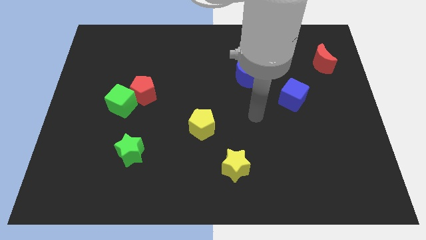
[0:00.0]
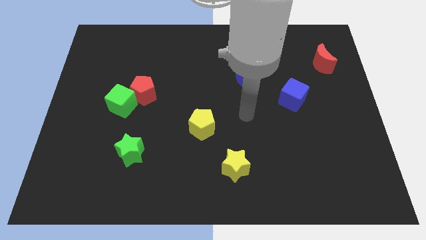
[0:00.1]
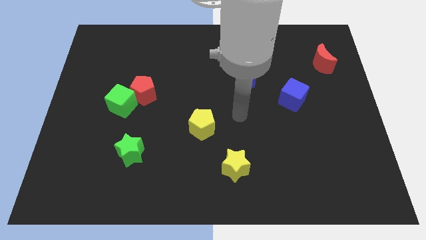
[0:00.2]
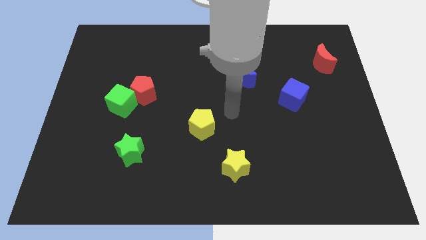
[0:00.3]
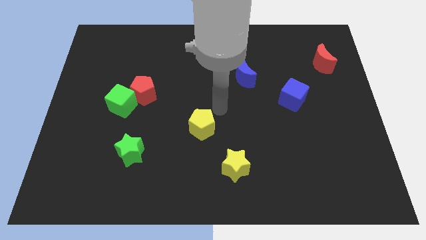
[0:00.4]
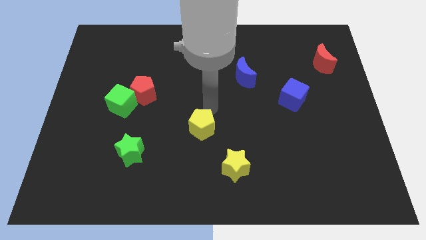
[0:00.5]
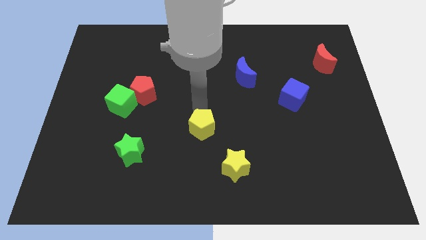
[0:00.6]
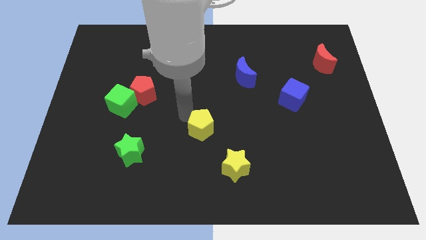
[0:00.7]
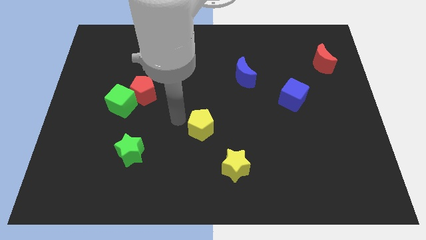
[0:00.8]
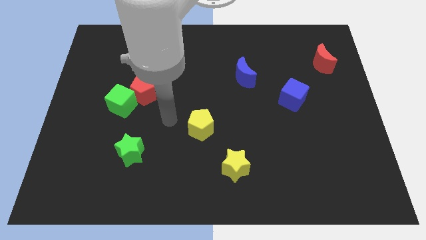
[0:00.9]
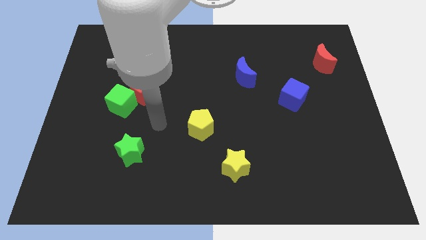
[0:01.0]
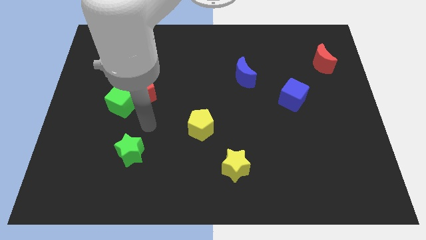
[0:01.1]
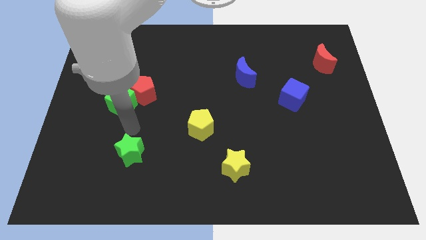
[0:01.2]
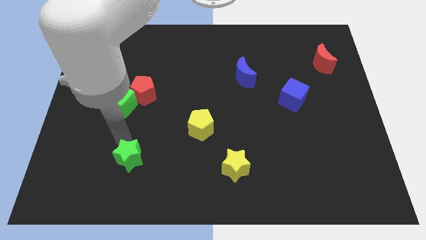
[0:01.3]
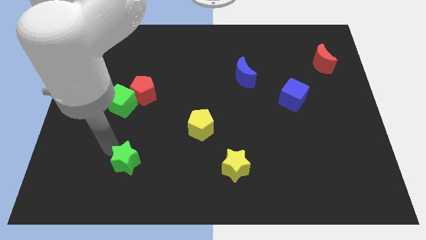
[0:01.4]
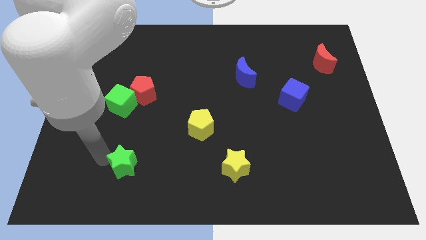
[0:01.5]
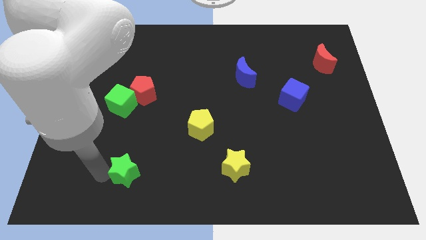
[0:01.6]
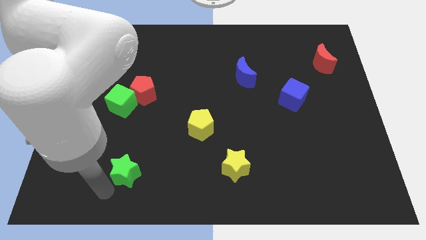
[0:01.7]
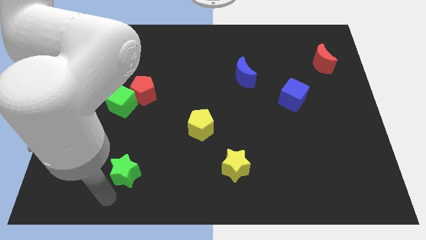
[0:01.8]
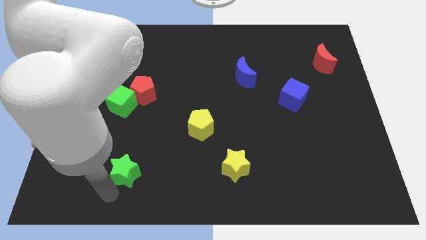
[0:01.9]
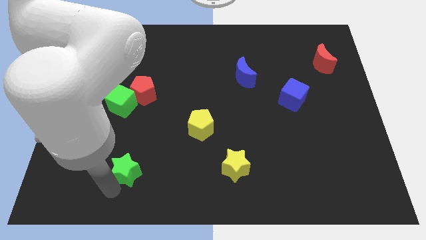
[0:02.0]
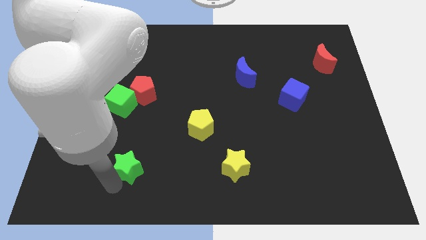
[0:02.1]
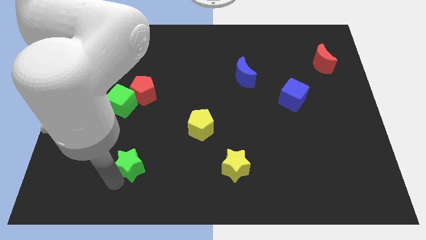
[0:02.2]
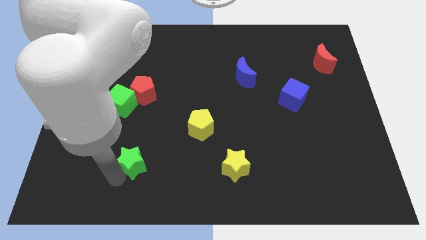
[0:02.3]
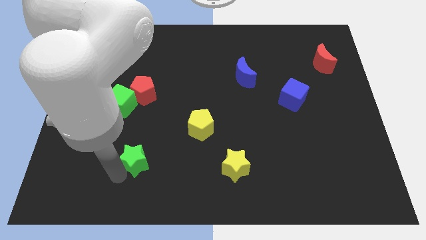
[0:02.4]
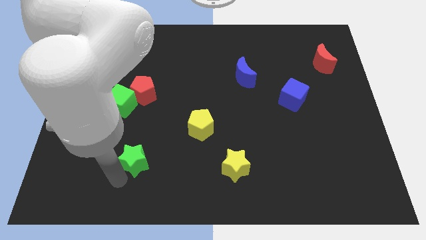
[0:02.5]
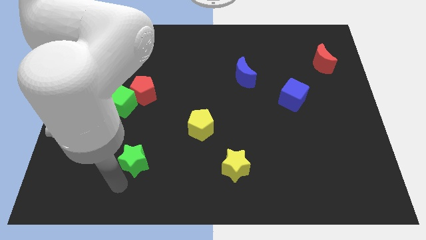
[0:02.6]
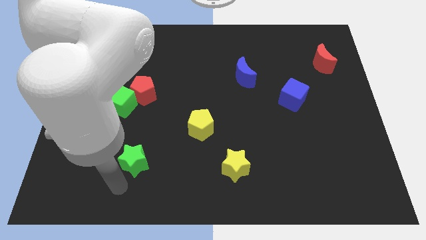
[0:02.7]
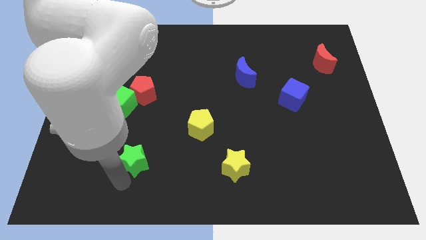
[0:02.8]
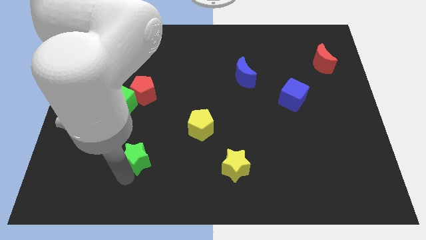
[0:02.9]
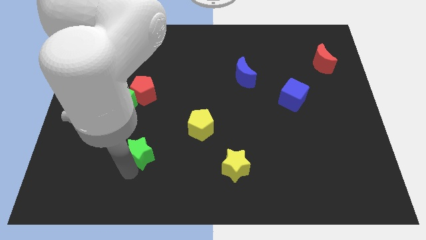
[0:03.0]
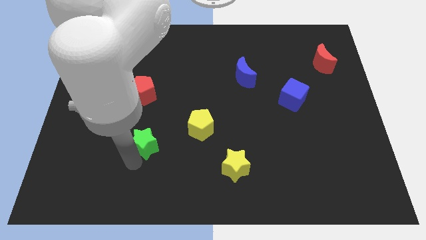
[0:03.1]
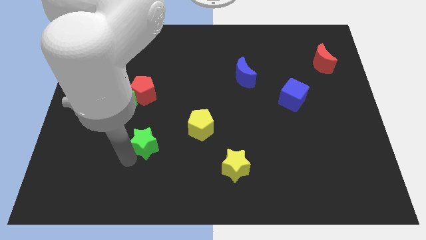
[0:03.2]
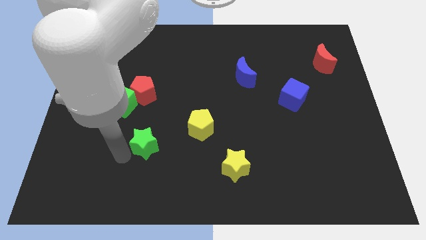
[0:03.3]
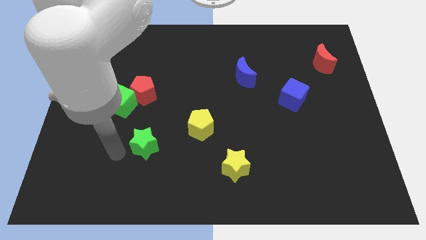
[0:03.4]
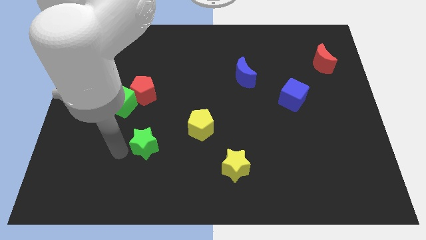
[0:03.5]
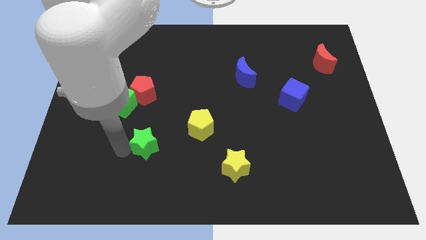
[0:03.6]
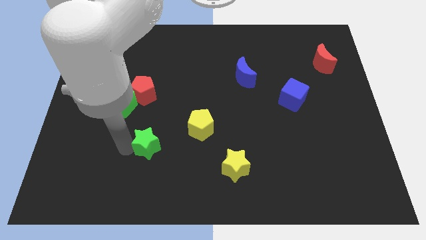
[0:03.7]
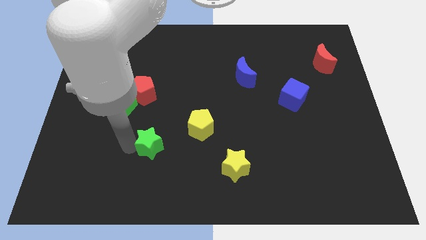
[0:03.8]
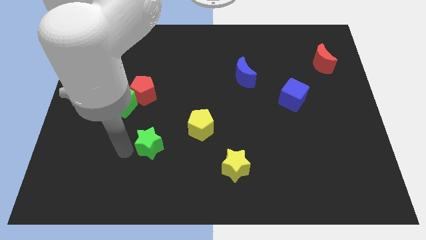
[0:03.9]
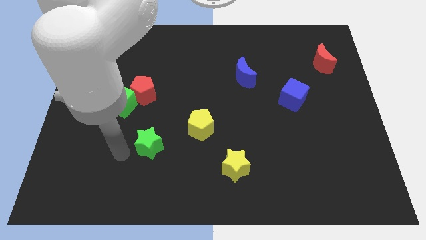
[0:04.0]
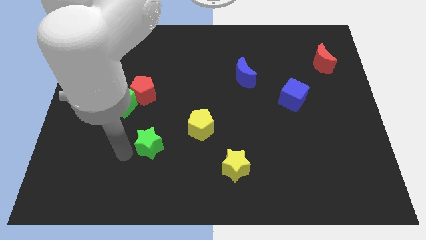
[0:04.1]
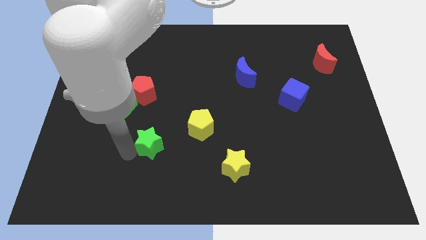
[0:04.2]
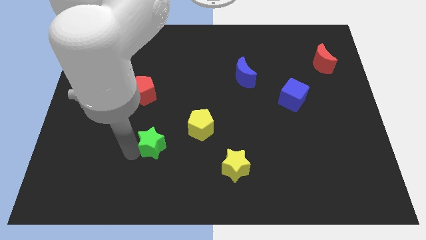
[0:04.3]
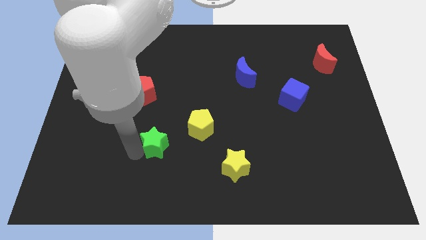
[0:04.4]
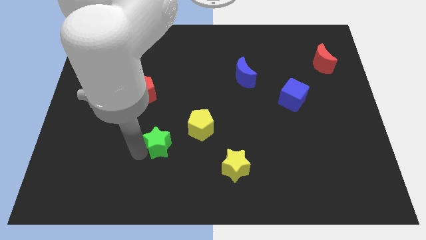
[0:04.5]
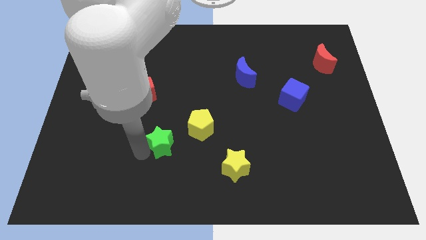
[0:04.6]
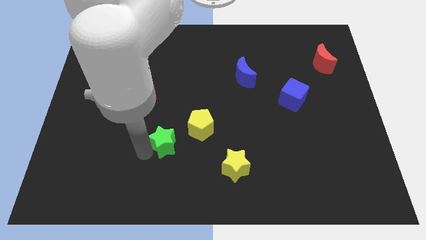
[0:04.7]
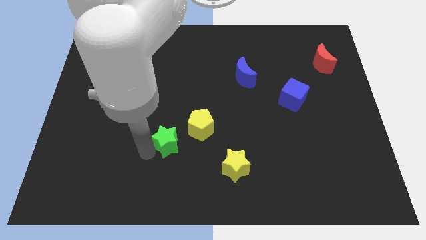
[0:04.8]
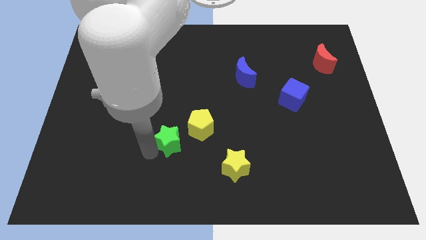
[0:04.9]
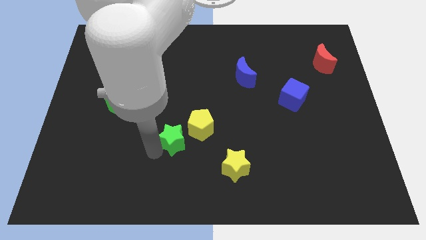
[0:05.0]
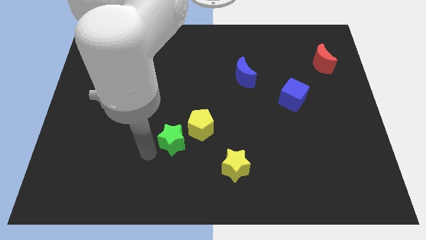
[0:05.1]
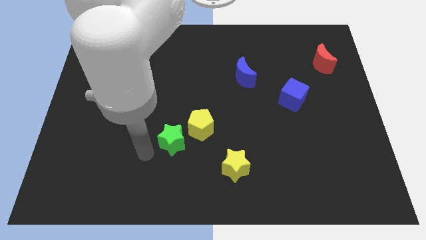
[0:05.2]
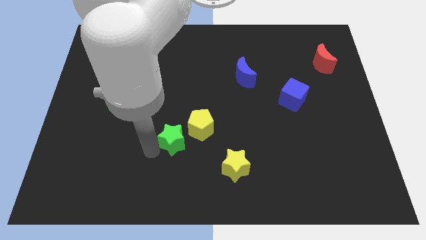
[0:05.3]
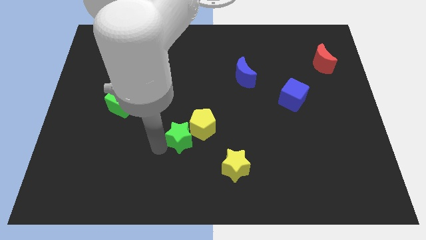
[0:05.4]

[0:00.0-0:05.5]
slide the green star next to the yellow pentagon
